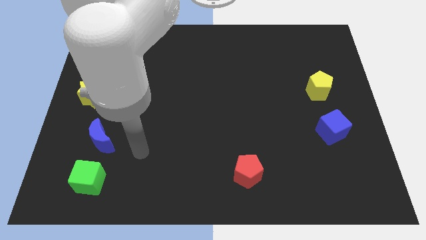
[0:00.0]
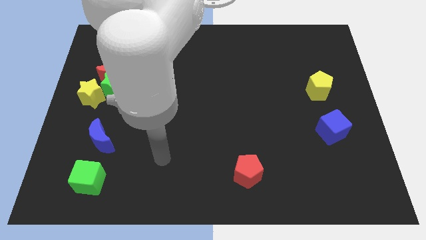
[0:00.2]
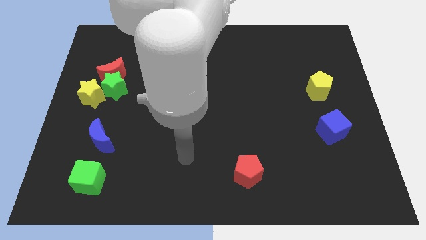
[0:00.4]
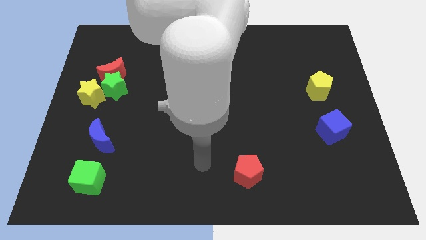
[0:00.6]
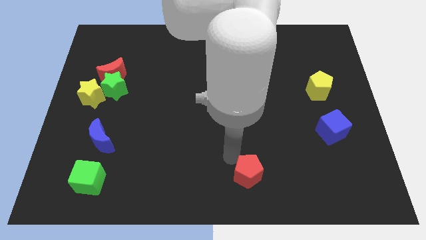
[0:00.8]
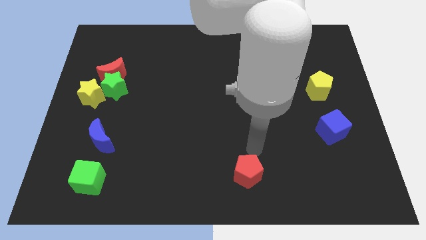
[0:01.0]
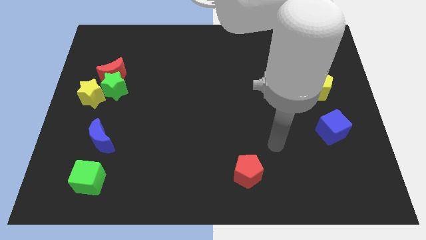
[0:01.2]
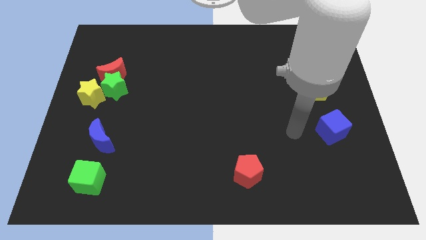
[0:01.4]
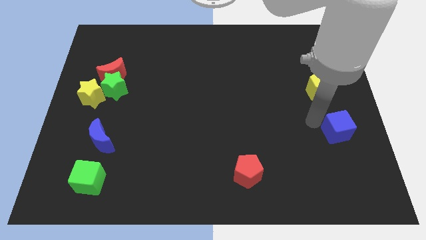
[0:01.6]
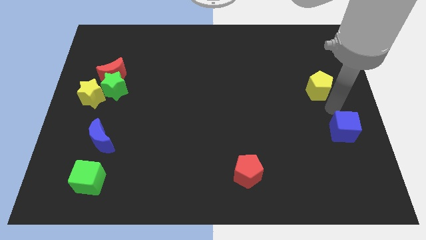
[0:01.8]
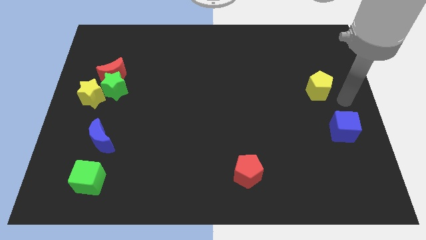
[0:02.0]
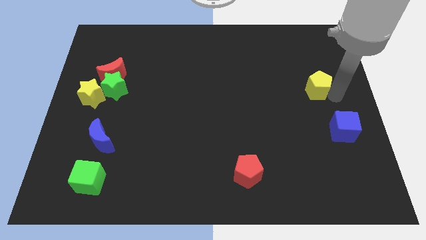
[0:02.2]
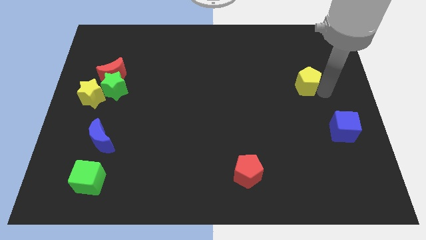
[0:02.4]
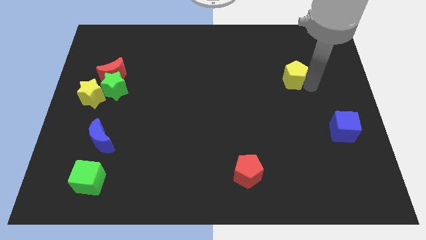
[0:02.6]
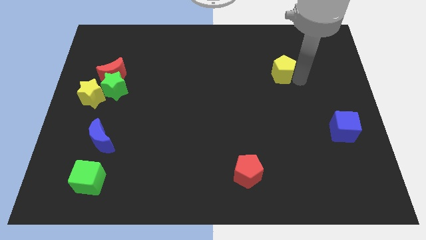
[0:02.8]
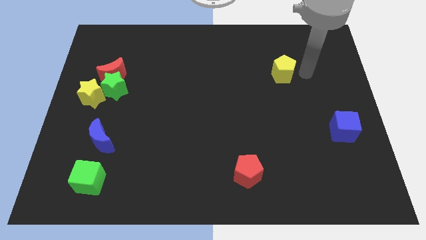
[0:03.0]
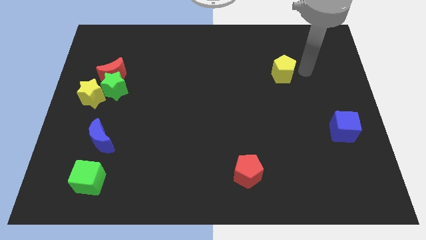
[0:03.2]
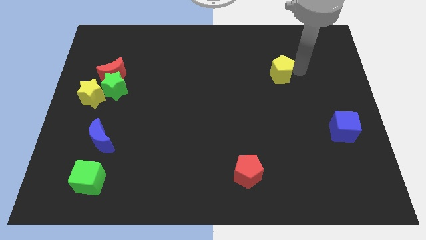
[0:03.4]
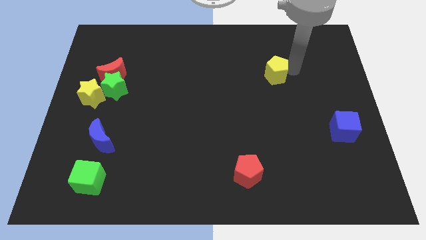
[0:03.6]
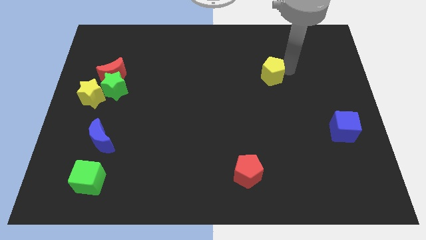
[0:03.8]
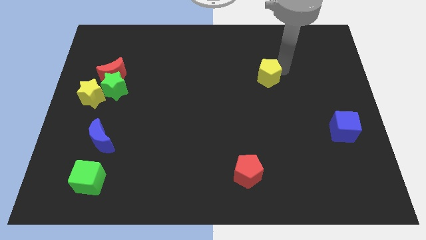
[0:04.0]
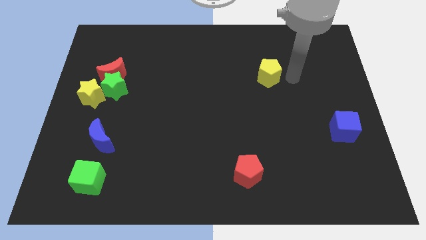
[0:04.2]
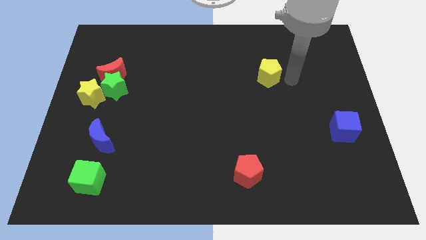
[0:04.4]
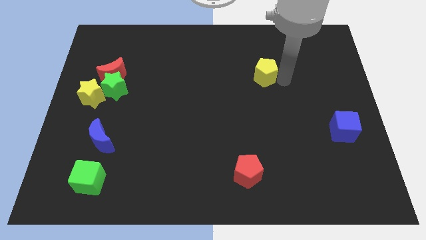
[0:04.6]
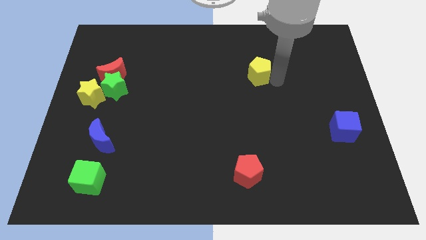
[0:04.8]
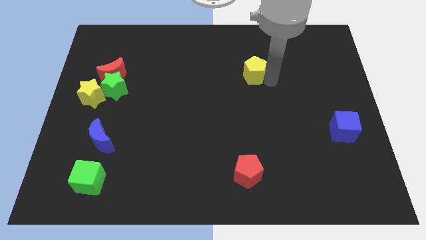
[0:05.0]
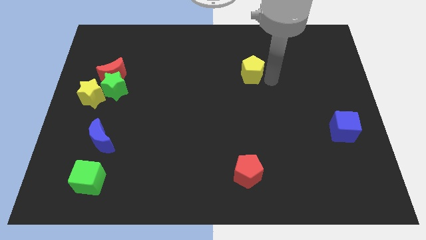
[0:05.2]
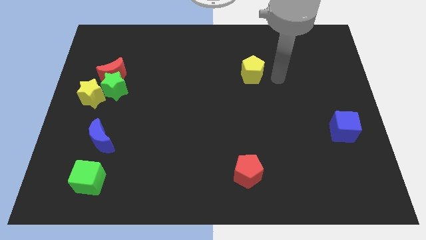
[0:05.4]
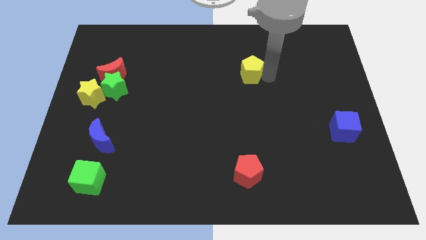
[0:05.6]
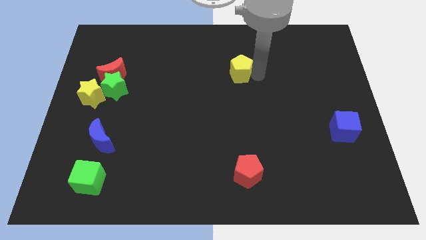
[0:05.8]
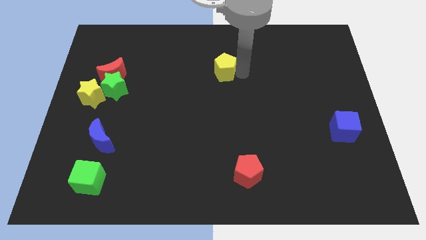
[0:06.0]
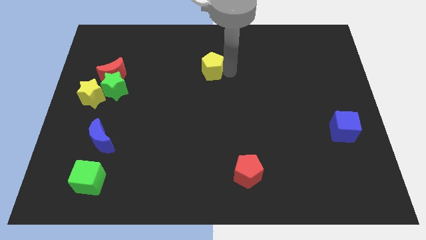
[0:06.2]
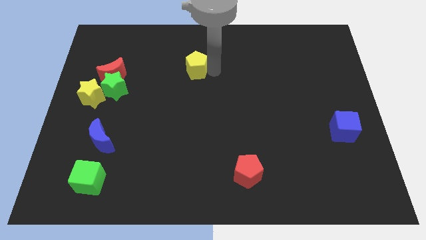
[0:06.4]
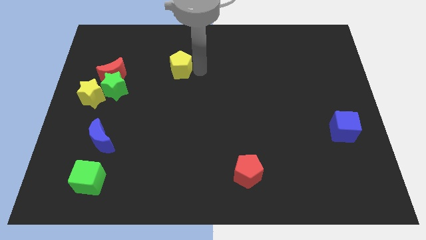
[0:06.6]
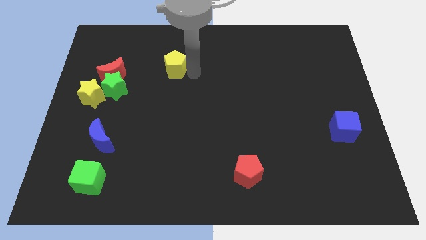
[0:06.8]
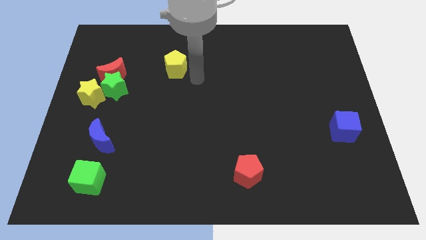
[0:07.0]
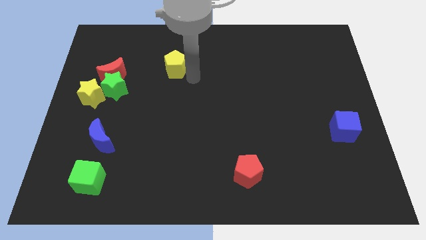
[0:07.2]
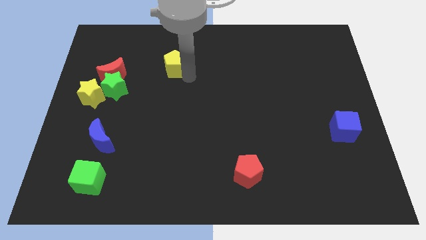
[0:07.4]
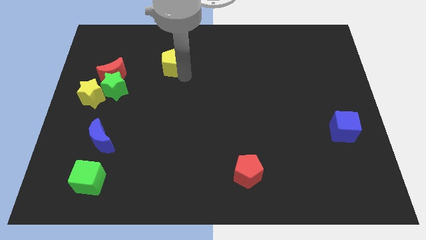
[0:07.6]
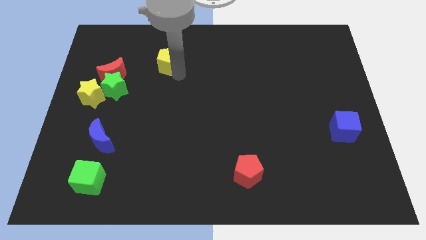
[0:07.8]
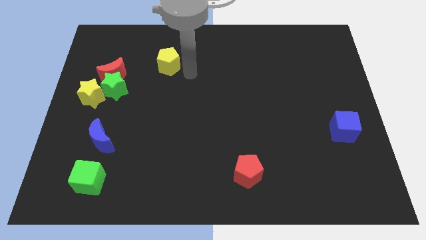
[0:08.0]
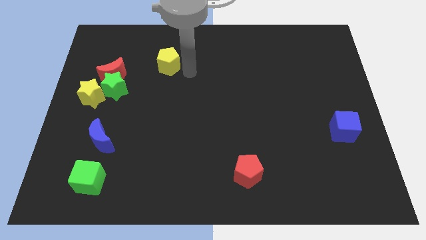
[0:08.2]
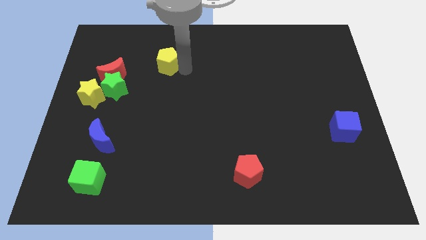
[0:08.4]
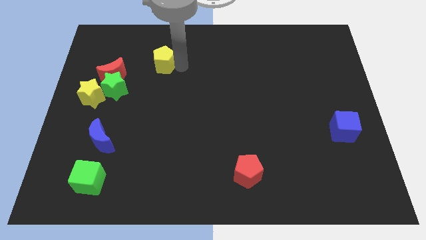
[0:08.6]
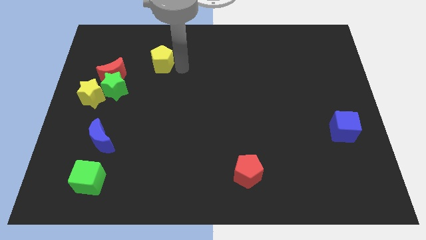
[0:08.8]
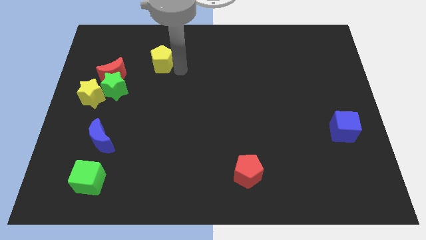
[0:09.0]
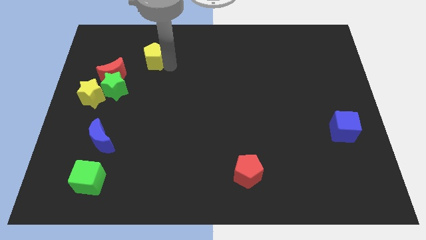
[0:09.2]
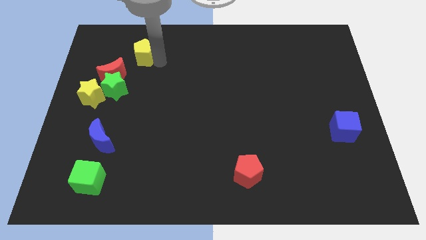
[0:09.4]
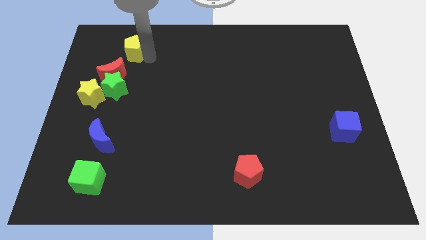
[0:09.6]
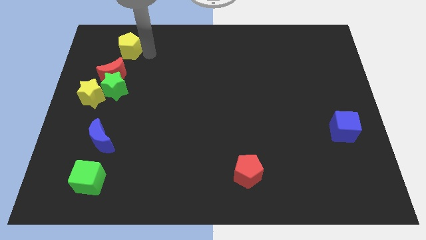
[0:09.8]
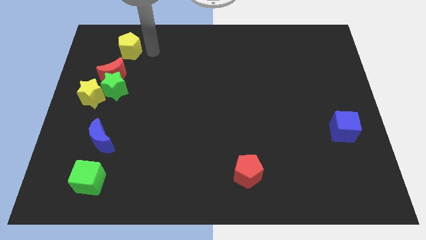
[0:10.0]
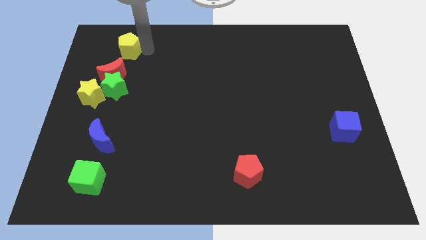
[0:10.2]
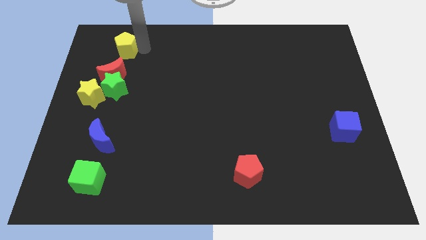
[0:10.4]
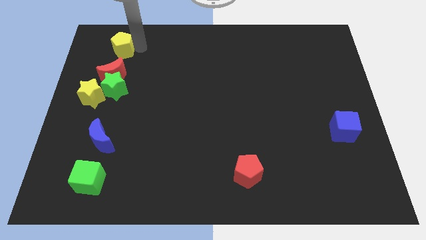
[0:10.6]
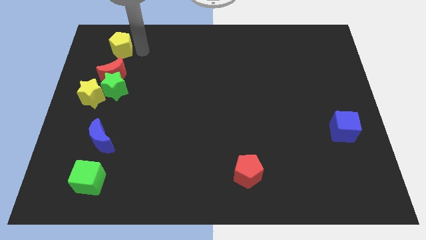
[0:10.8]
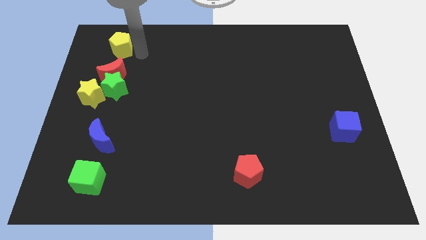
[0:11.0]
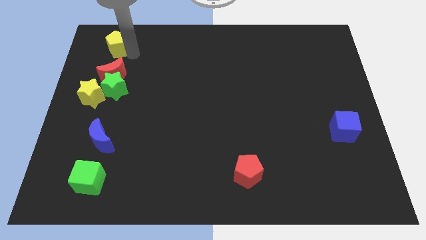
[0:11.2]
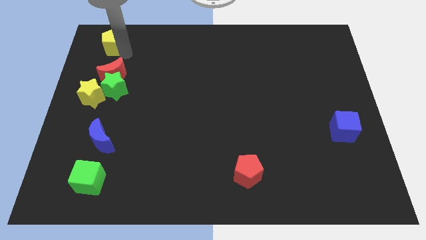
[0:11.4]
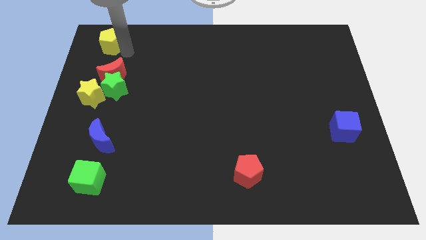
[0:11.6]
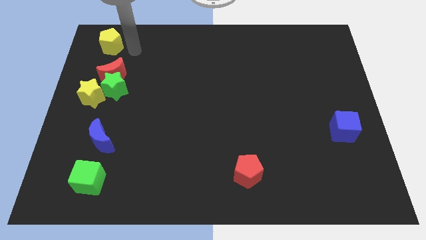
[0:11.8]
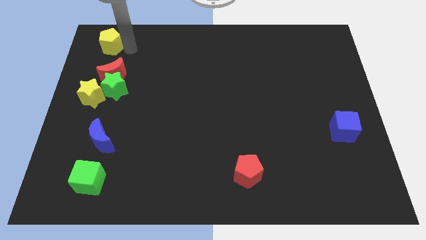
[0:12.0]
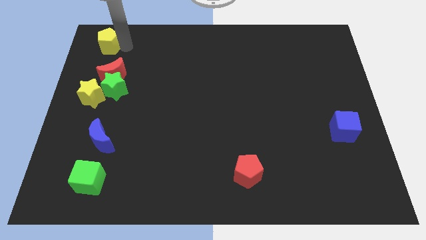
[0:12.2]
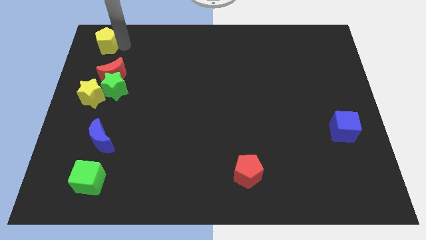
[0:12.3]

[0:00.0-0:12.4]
slide the yellow pentagon to the top left corner
